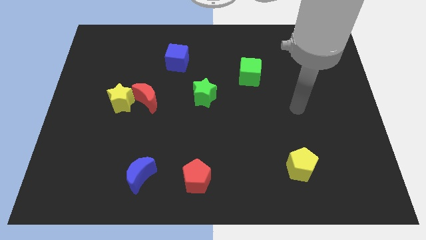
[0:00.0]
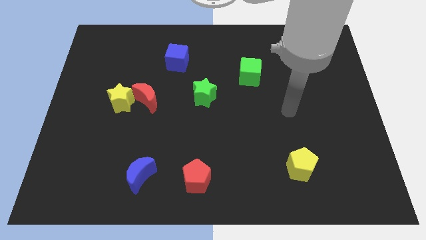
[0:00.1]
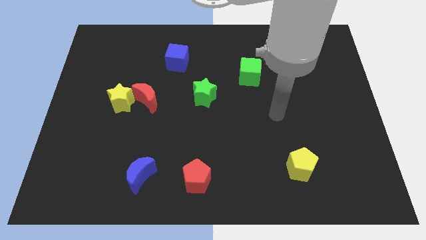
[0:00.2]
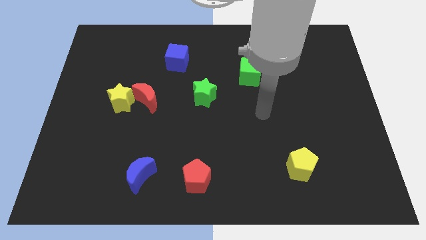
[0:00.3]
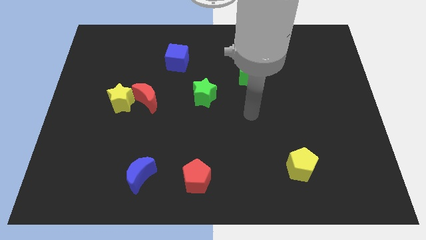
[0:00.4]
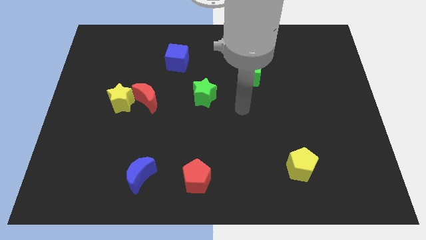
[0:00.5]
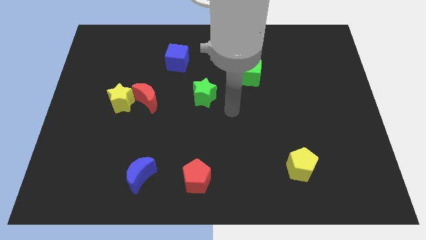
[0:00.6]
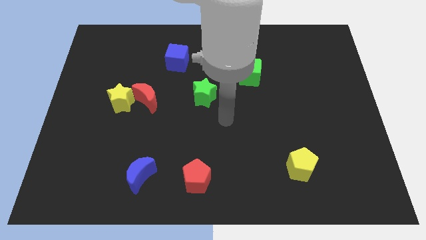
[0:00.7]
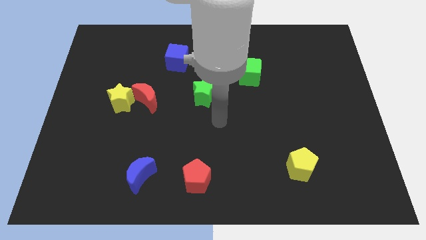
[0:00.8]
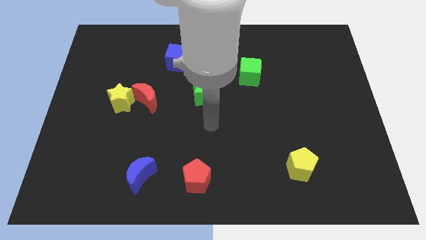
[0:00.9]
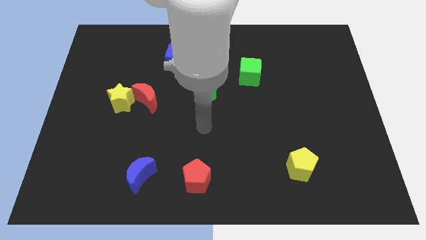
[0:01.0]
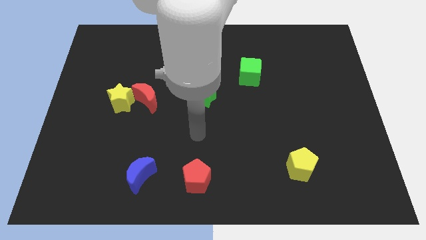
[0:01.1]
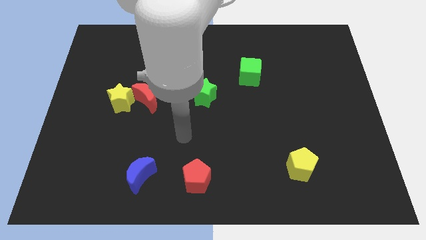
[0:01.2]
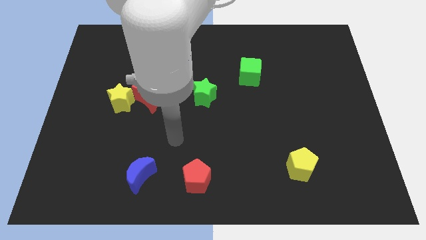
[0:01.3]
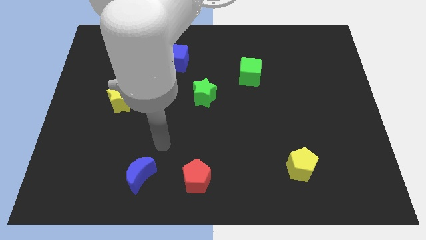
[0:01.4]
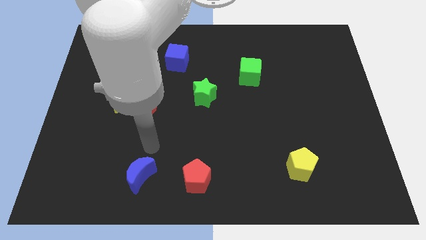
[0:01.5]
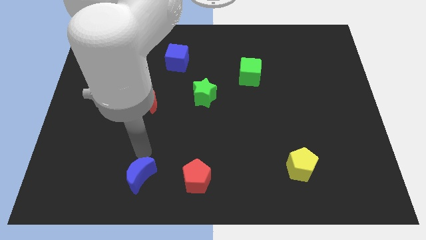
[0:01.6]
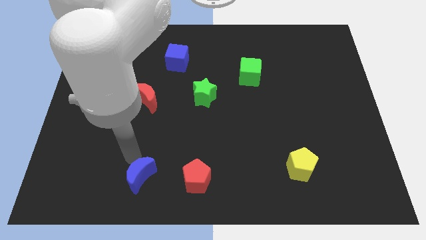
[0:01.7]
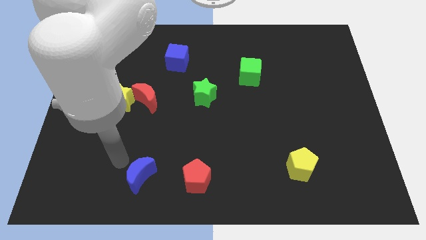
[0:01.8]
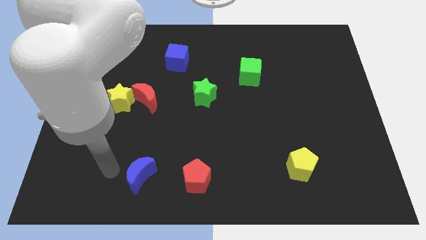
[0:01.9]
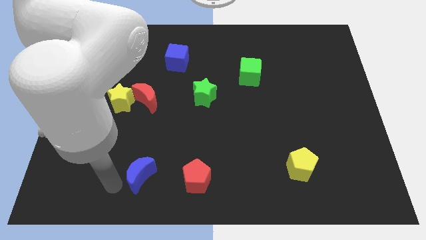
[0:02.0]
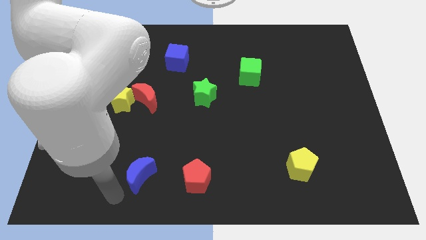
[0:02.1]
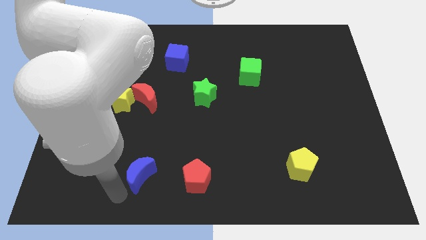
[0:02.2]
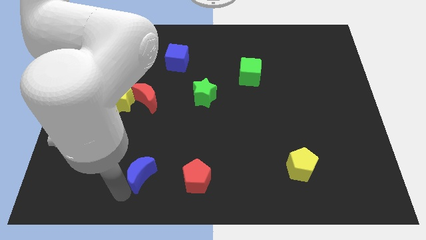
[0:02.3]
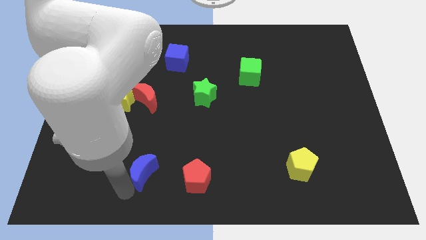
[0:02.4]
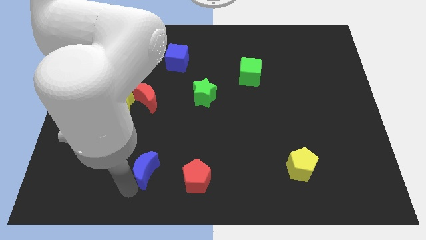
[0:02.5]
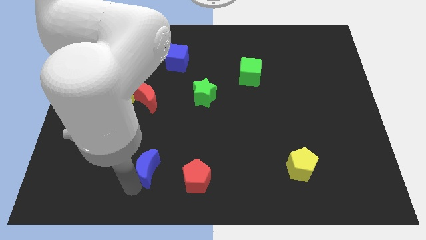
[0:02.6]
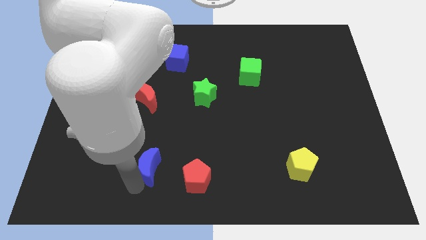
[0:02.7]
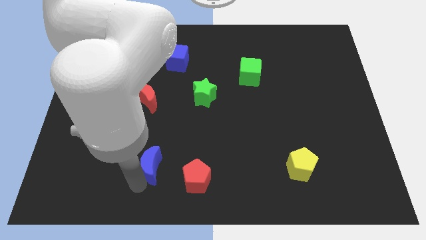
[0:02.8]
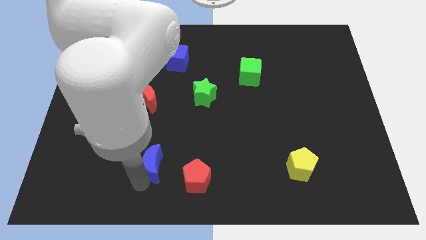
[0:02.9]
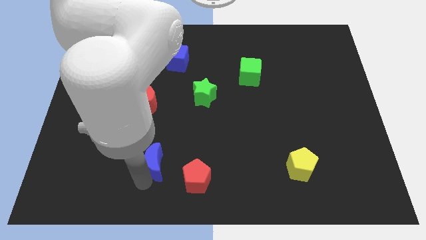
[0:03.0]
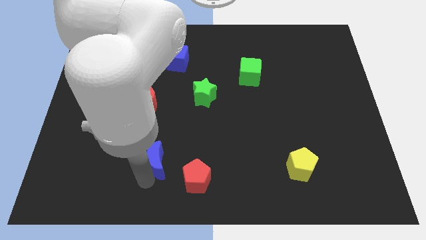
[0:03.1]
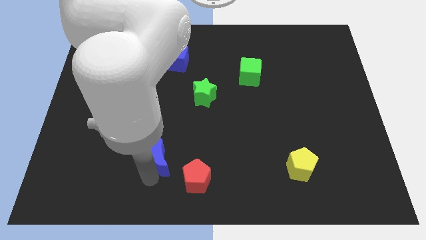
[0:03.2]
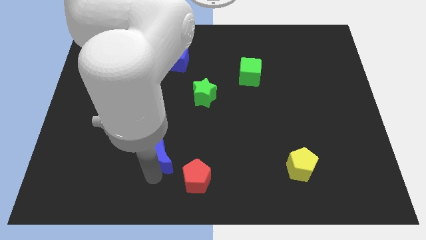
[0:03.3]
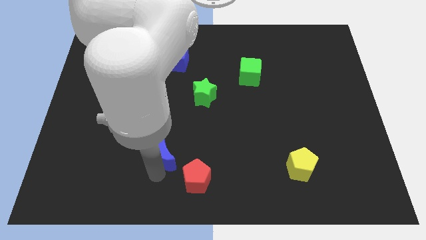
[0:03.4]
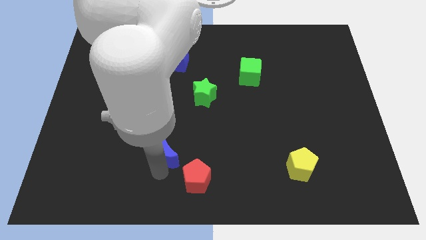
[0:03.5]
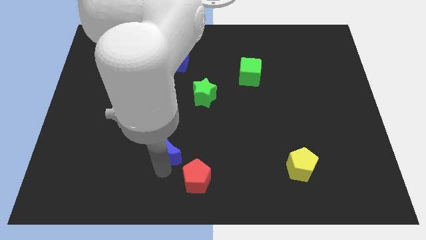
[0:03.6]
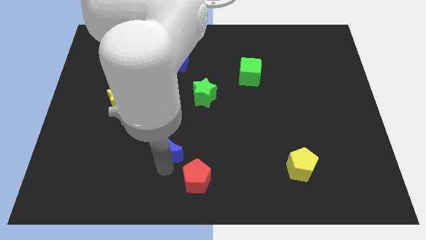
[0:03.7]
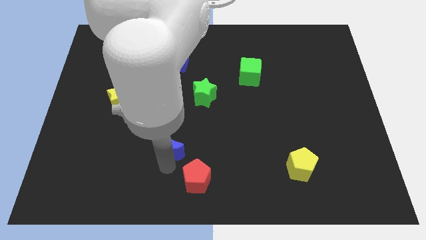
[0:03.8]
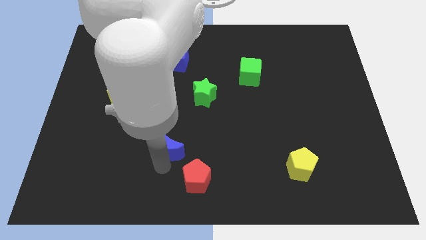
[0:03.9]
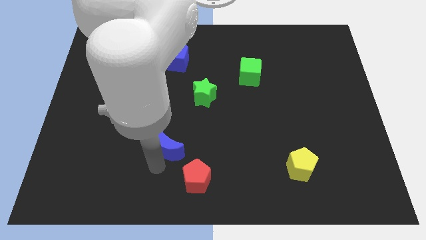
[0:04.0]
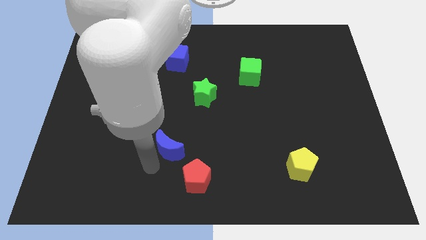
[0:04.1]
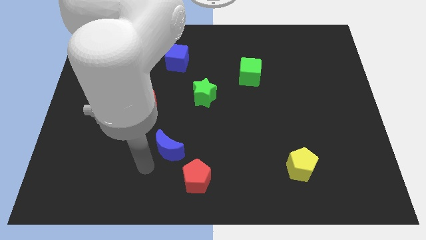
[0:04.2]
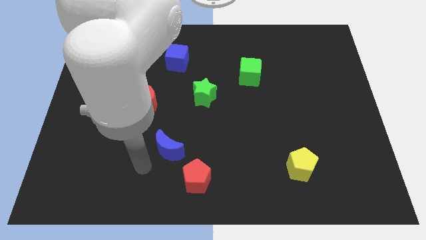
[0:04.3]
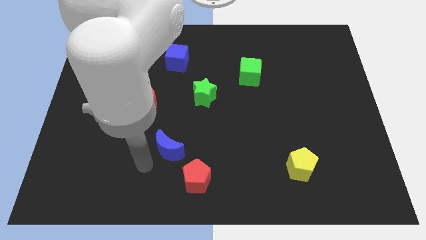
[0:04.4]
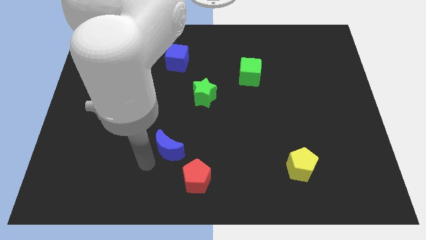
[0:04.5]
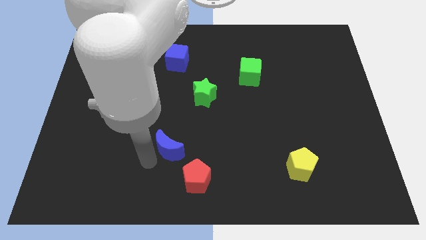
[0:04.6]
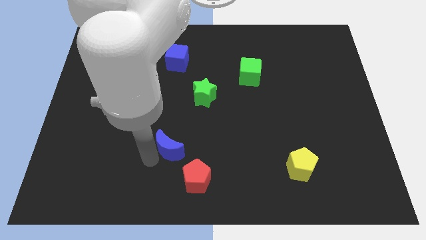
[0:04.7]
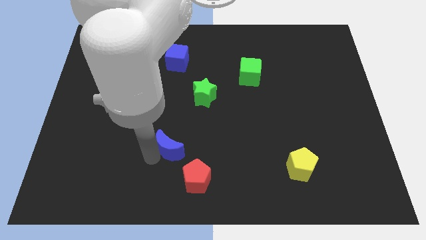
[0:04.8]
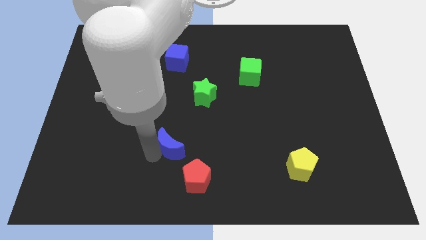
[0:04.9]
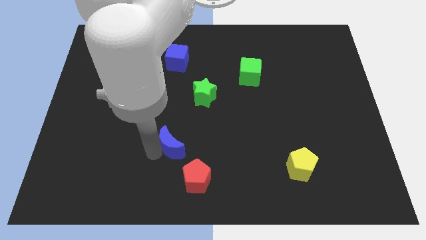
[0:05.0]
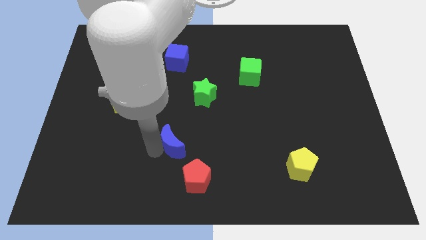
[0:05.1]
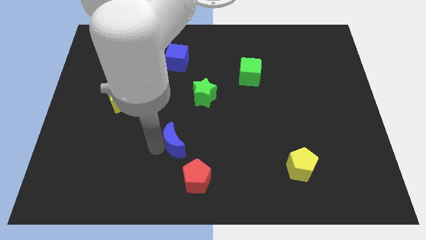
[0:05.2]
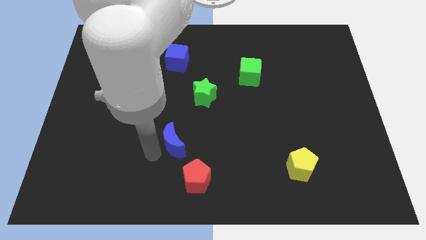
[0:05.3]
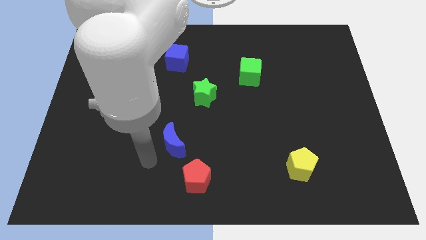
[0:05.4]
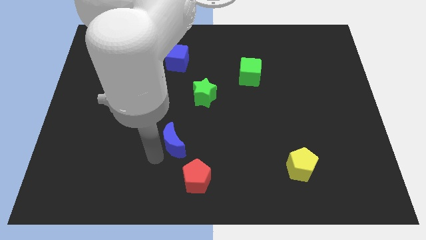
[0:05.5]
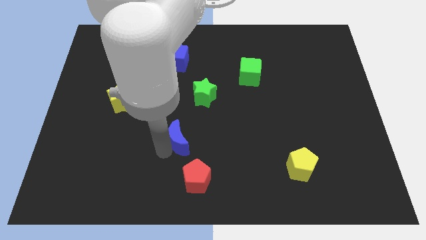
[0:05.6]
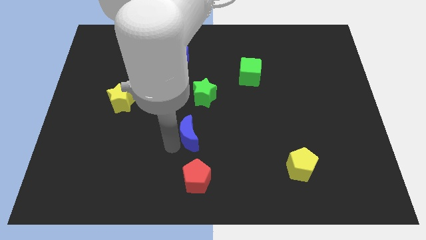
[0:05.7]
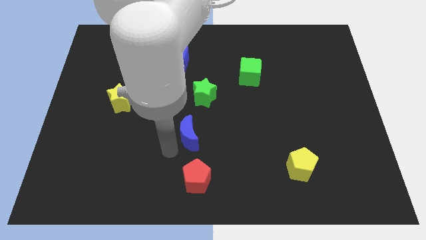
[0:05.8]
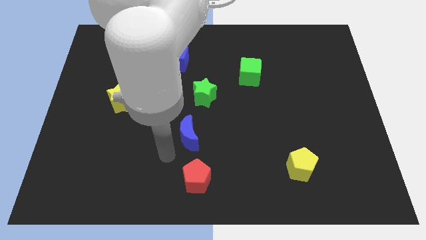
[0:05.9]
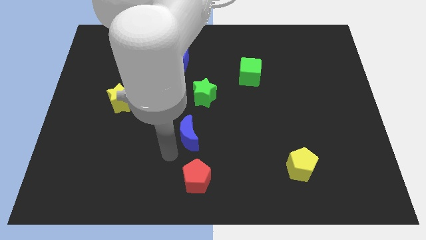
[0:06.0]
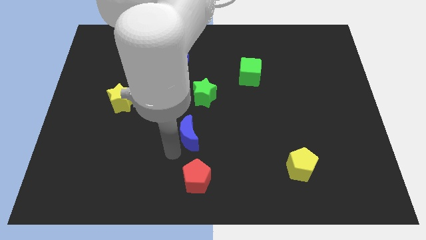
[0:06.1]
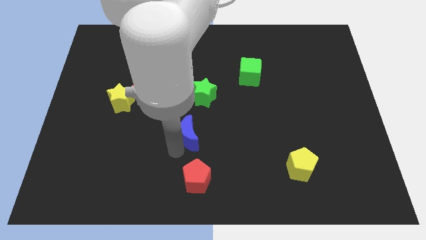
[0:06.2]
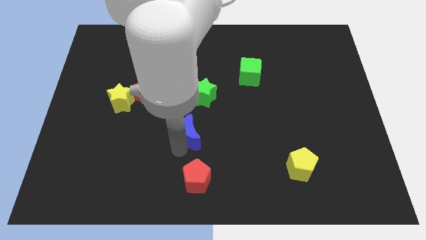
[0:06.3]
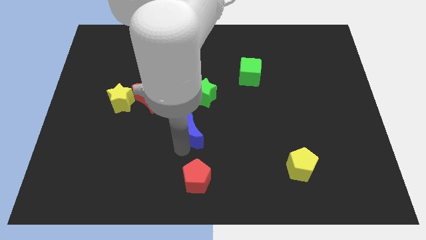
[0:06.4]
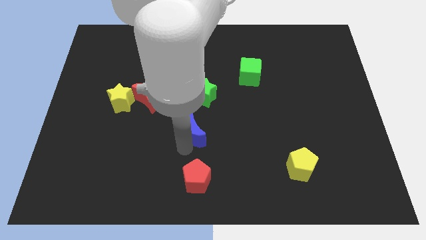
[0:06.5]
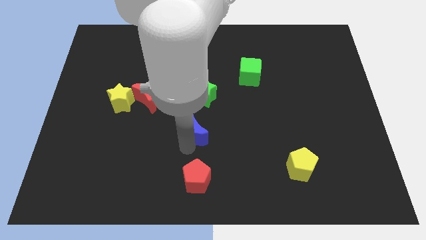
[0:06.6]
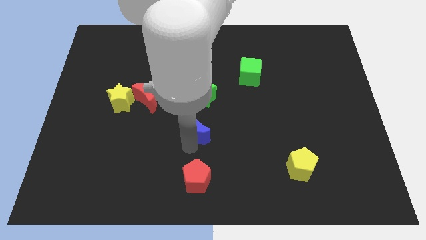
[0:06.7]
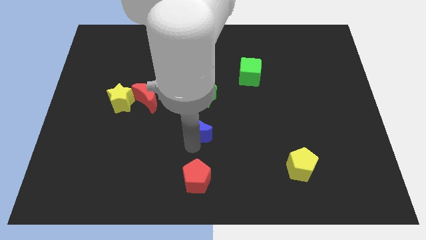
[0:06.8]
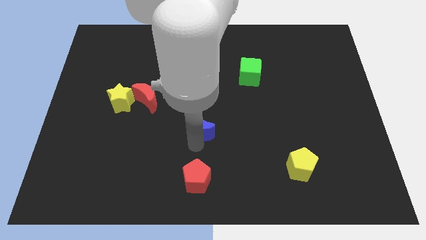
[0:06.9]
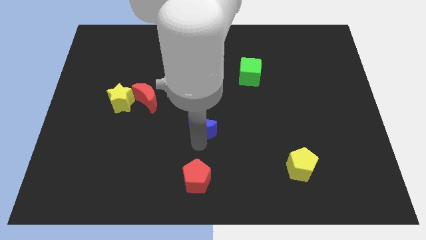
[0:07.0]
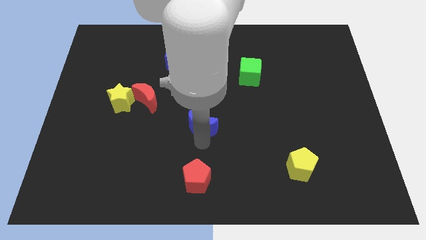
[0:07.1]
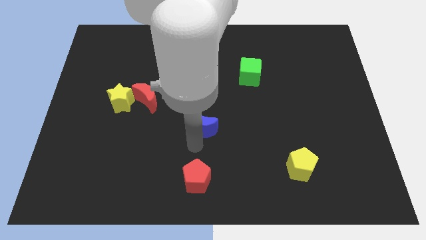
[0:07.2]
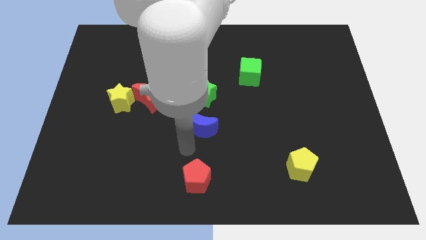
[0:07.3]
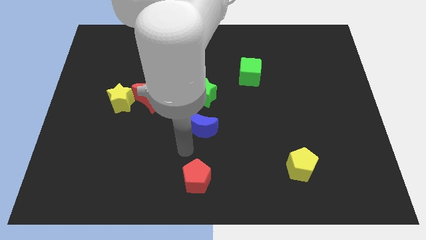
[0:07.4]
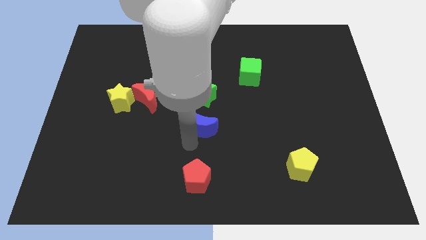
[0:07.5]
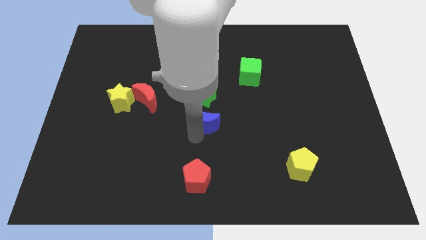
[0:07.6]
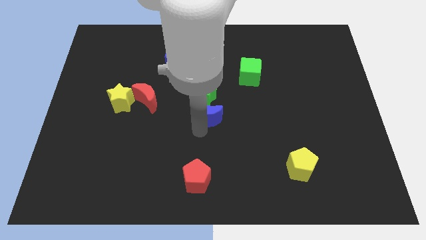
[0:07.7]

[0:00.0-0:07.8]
push the blue moon upwards and to the right

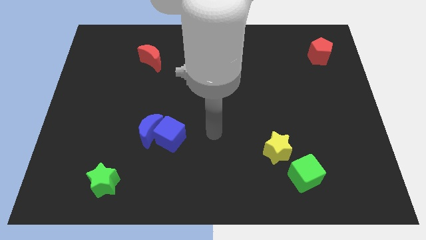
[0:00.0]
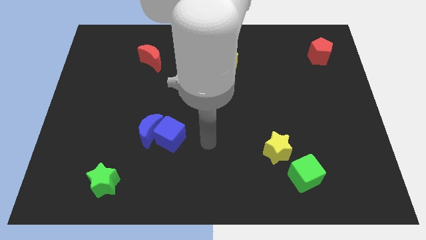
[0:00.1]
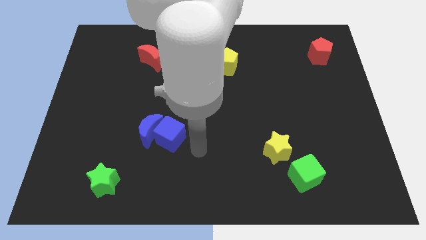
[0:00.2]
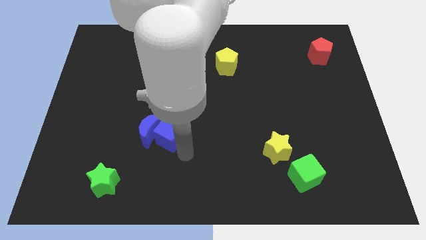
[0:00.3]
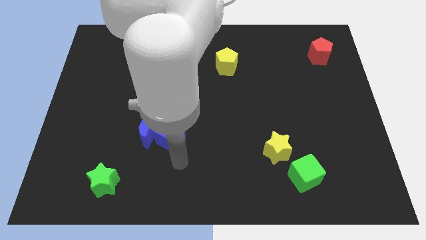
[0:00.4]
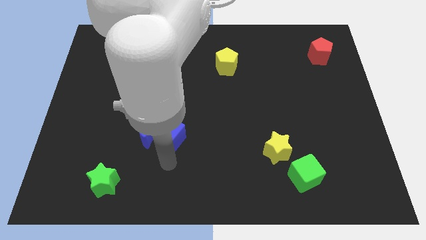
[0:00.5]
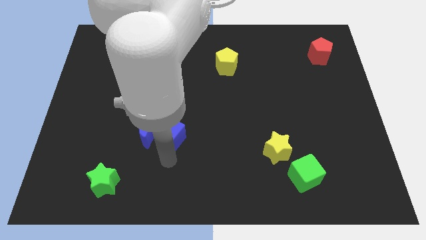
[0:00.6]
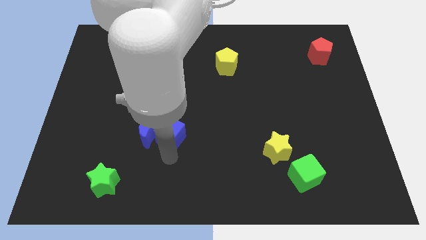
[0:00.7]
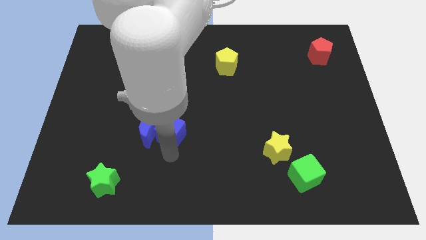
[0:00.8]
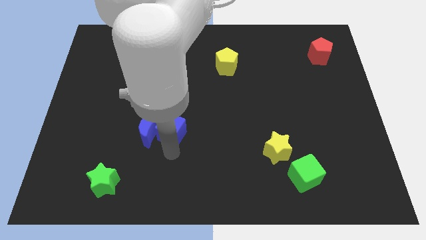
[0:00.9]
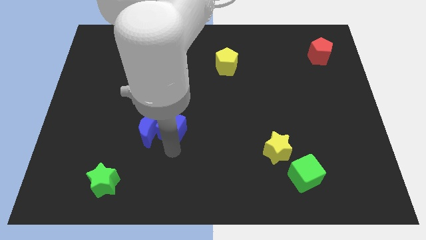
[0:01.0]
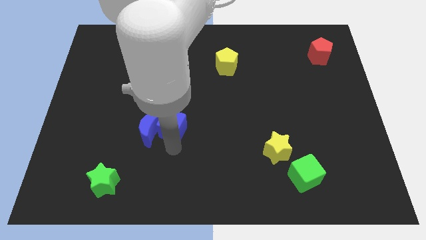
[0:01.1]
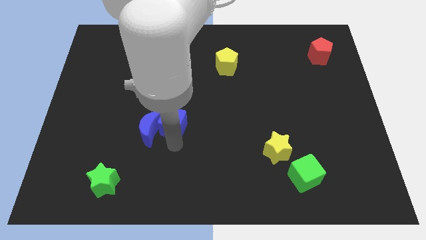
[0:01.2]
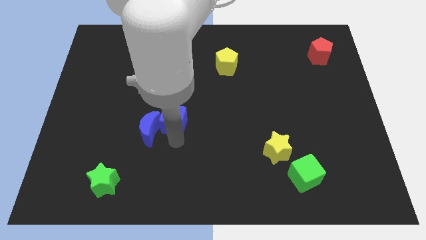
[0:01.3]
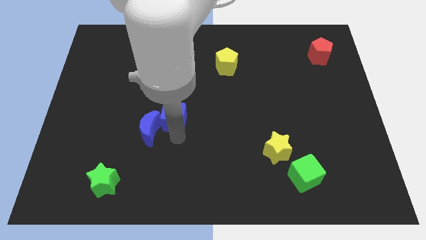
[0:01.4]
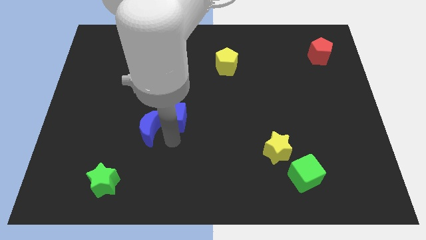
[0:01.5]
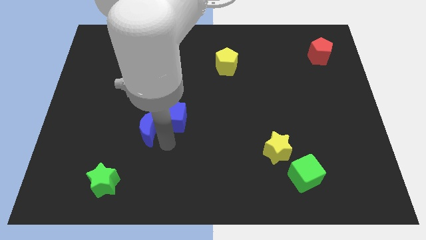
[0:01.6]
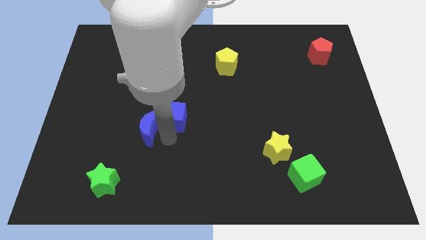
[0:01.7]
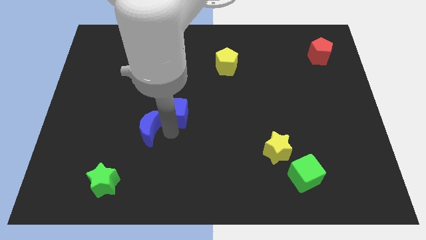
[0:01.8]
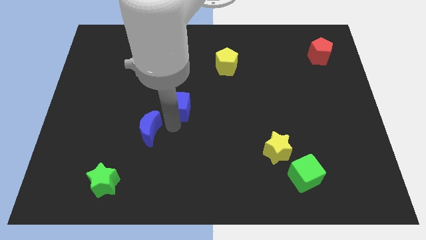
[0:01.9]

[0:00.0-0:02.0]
slide the blue cube a little upwards
